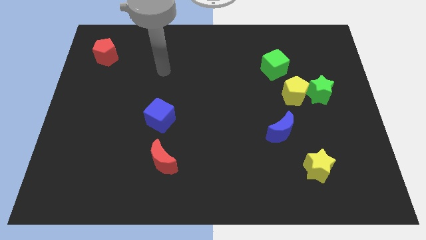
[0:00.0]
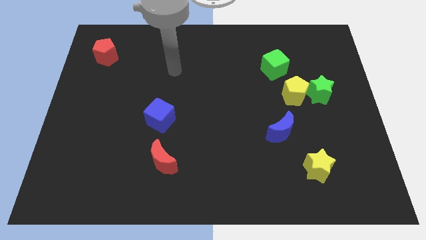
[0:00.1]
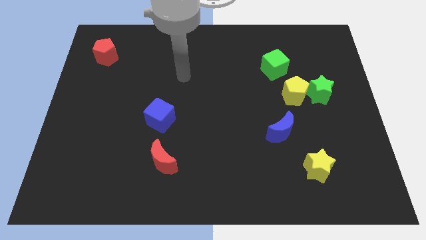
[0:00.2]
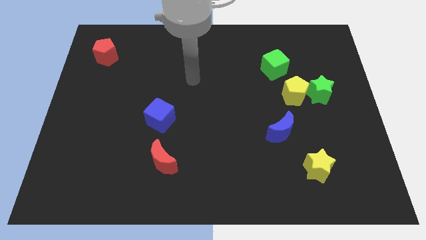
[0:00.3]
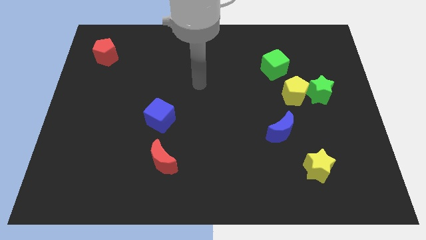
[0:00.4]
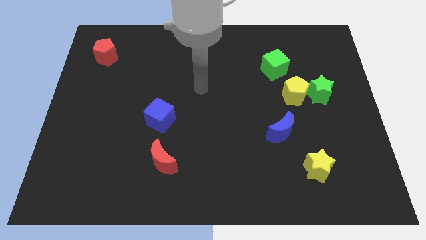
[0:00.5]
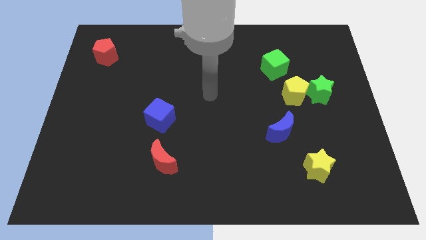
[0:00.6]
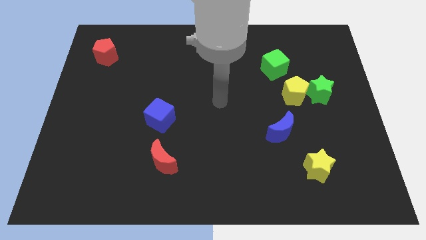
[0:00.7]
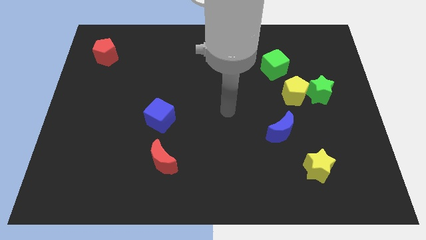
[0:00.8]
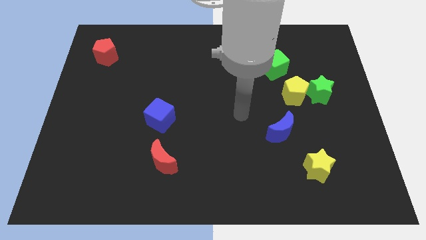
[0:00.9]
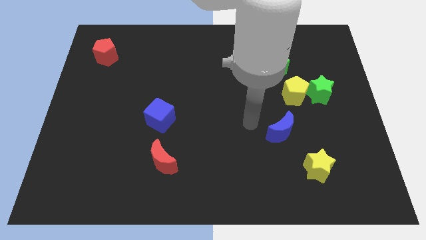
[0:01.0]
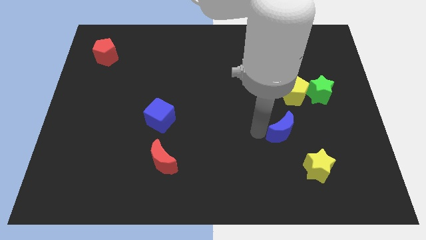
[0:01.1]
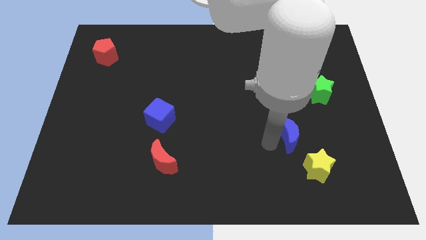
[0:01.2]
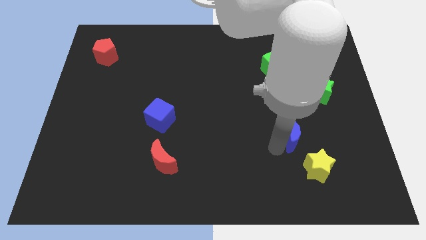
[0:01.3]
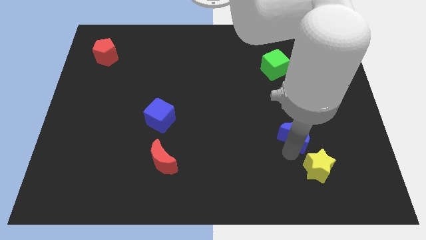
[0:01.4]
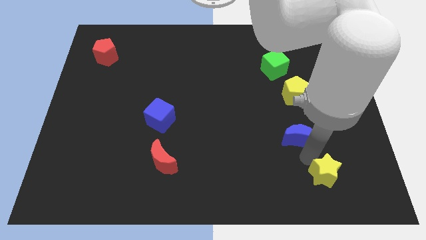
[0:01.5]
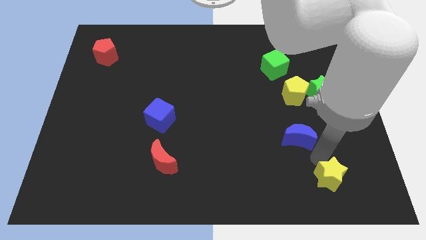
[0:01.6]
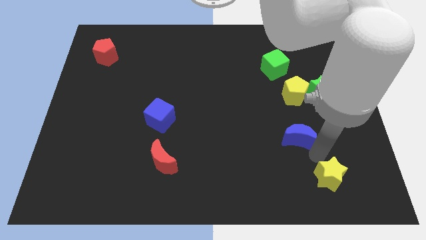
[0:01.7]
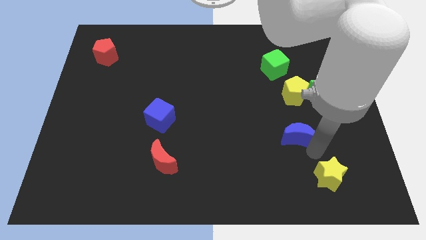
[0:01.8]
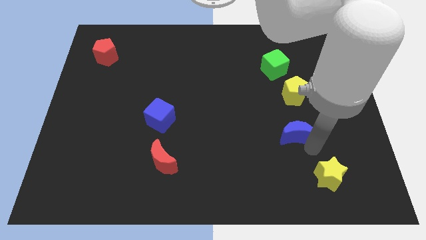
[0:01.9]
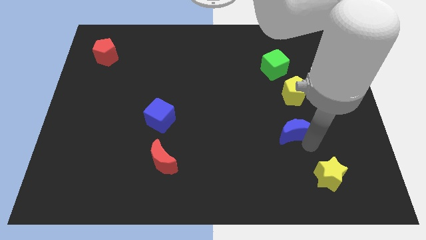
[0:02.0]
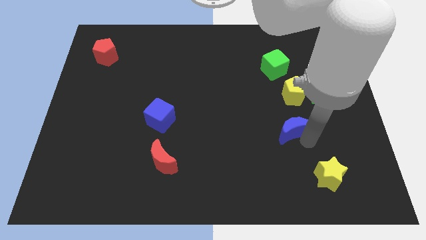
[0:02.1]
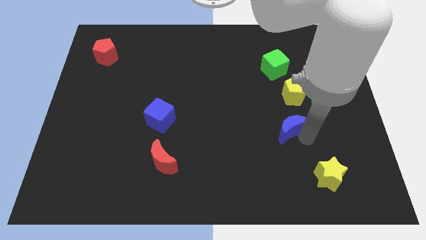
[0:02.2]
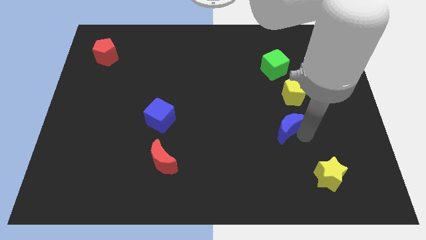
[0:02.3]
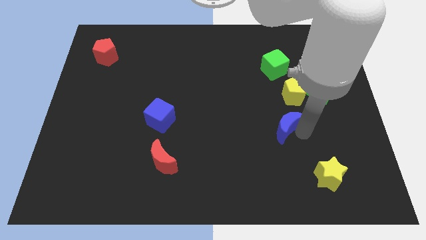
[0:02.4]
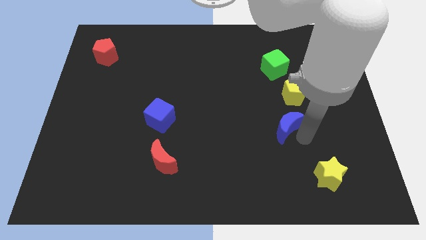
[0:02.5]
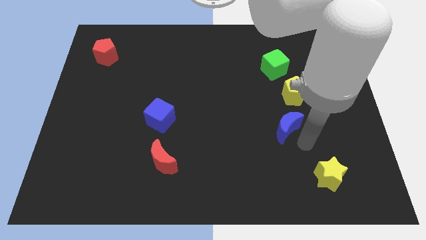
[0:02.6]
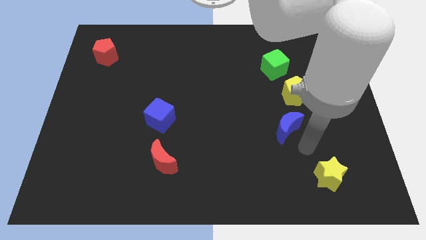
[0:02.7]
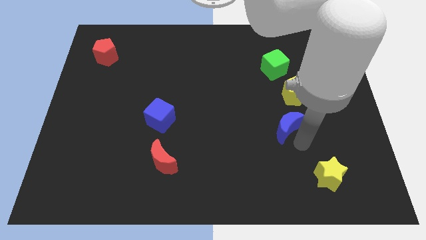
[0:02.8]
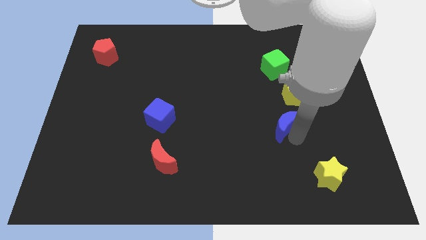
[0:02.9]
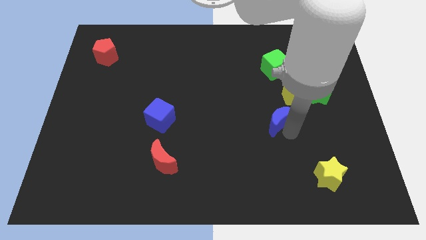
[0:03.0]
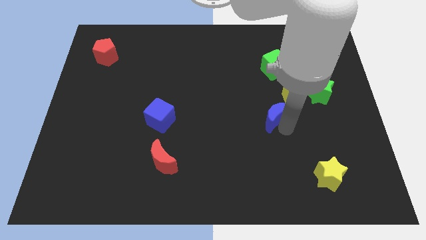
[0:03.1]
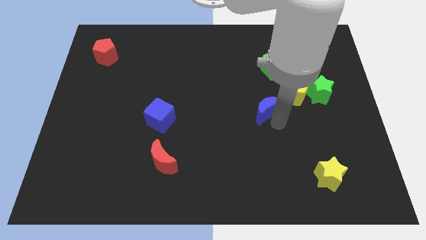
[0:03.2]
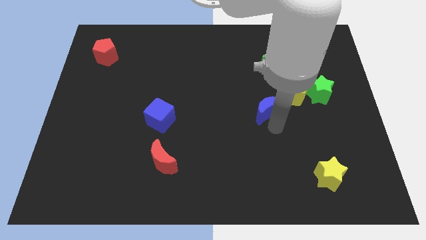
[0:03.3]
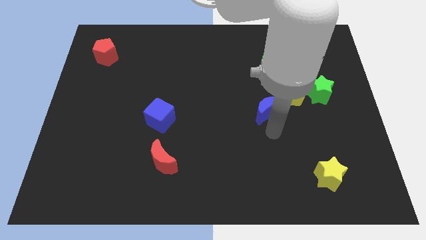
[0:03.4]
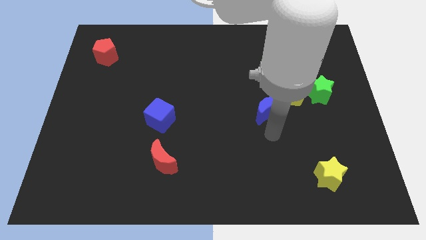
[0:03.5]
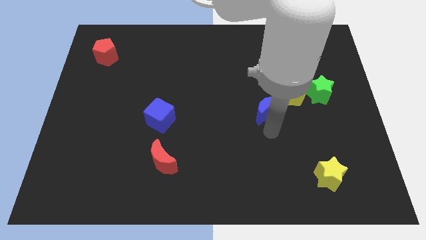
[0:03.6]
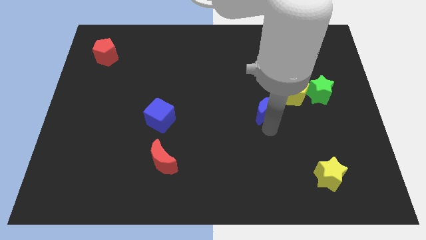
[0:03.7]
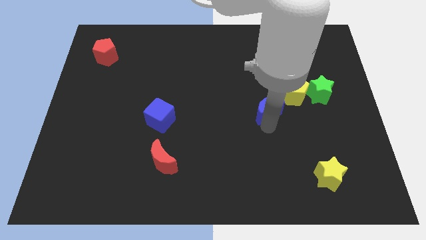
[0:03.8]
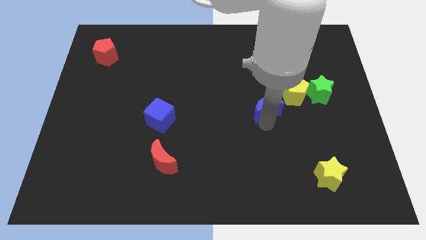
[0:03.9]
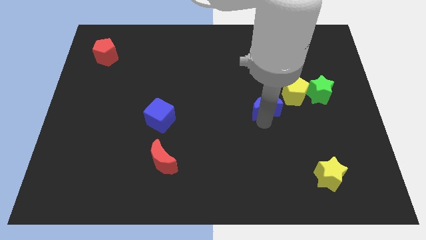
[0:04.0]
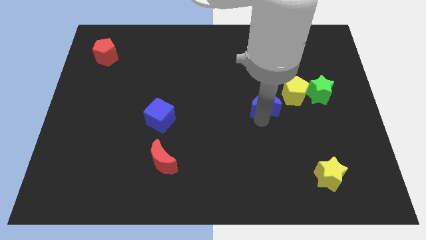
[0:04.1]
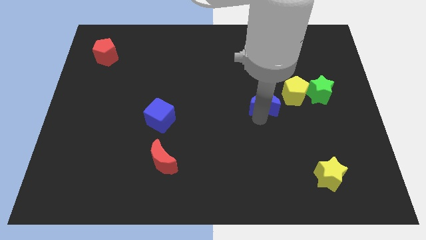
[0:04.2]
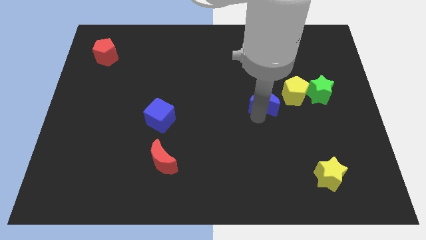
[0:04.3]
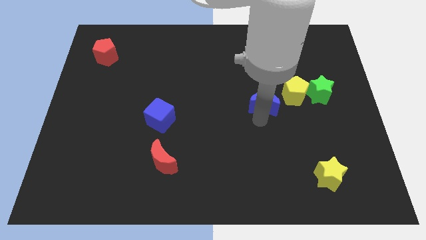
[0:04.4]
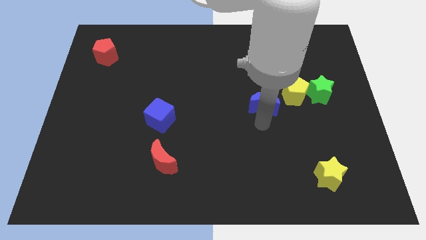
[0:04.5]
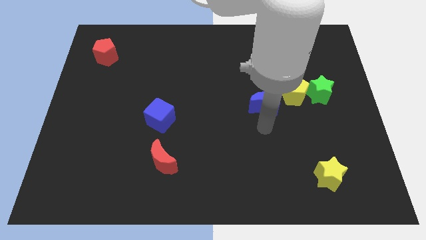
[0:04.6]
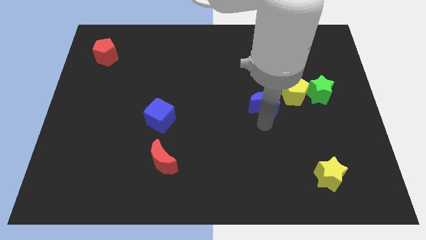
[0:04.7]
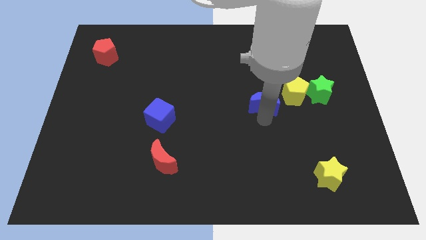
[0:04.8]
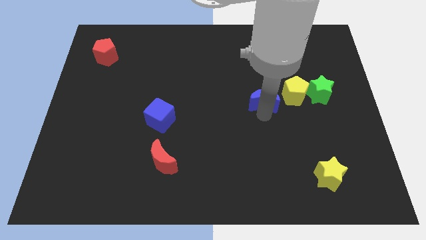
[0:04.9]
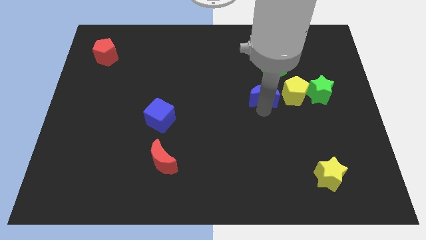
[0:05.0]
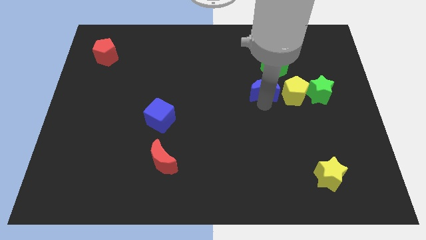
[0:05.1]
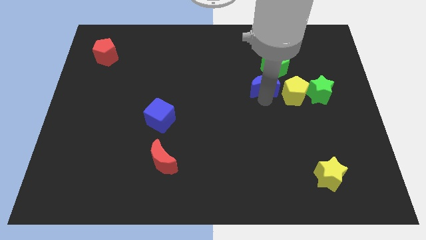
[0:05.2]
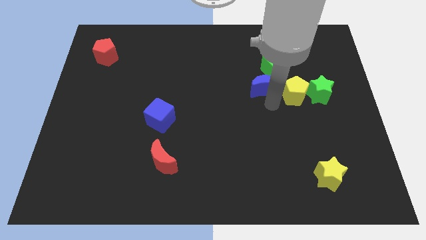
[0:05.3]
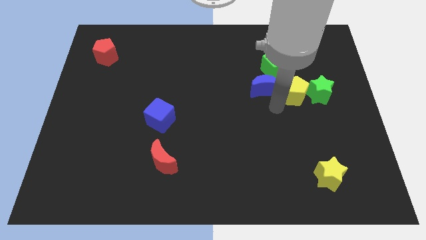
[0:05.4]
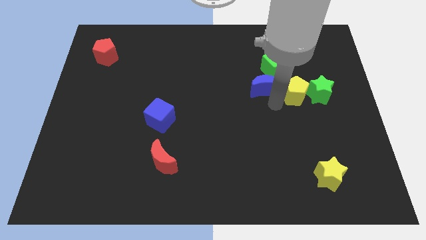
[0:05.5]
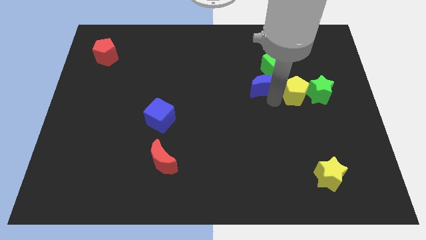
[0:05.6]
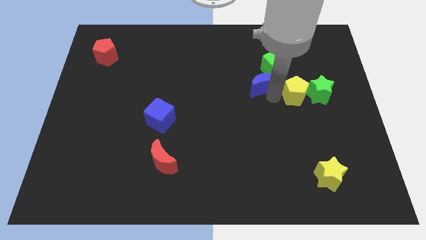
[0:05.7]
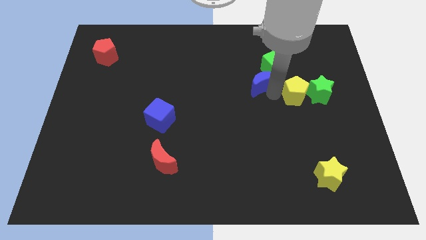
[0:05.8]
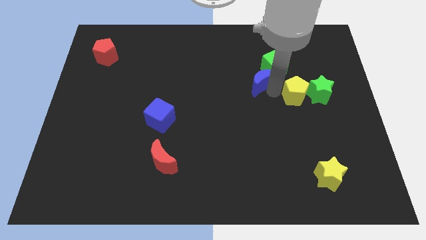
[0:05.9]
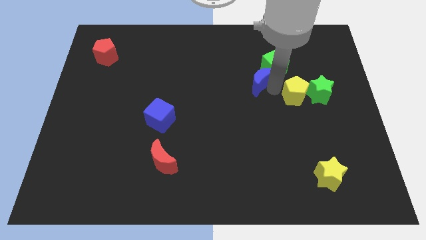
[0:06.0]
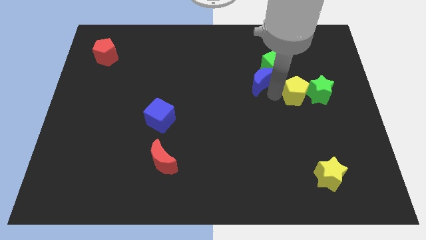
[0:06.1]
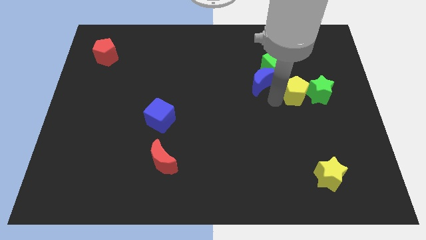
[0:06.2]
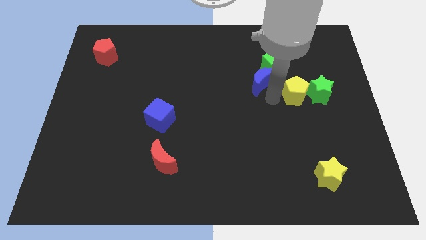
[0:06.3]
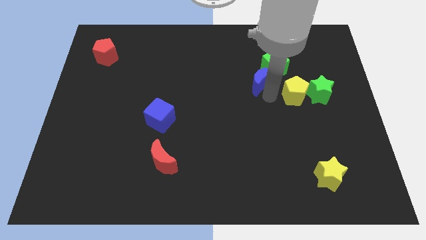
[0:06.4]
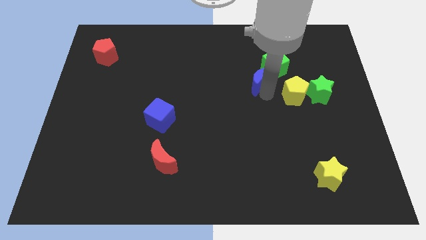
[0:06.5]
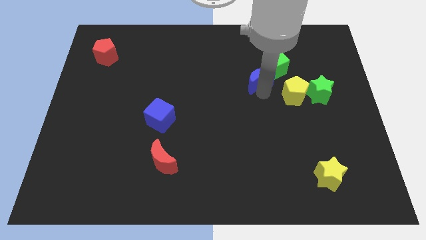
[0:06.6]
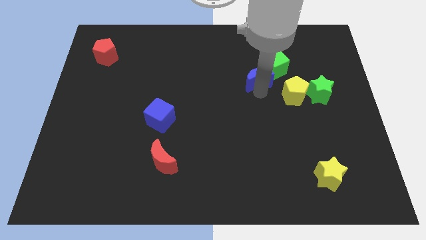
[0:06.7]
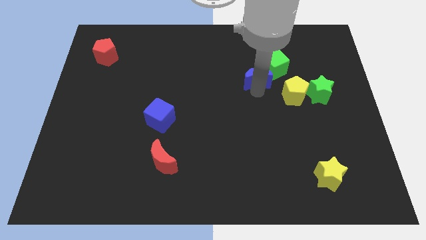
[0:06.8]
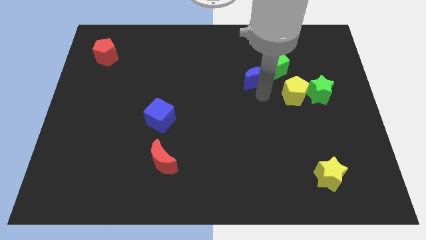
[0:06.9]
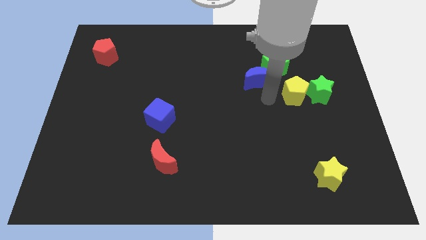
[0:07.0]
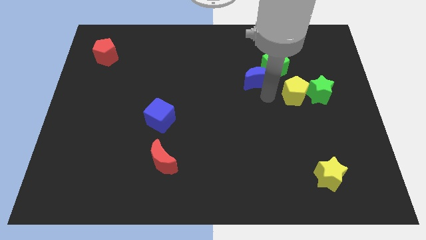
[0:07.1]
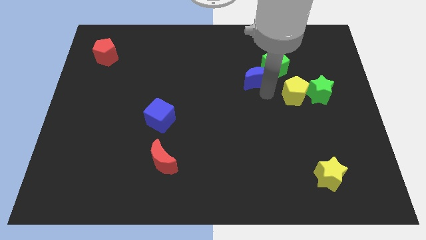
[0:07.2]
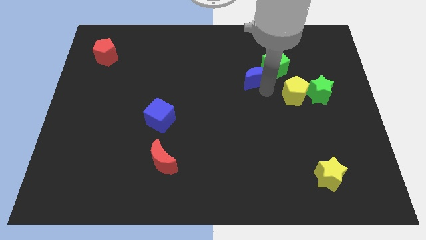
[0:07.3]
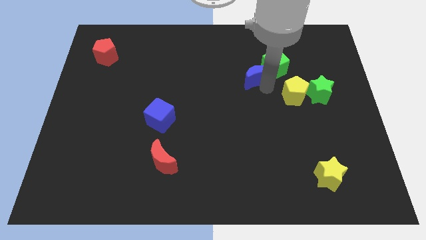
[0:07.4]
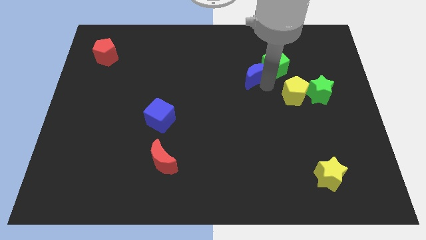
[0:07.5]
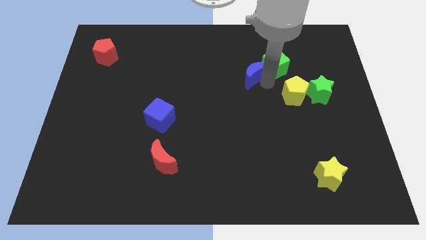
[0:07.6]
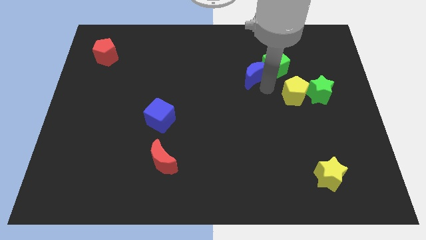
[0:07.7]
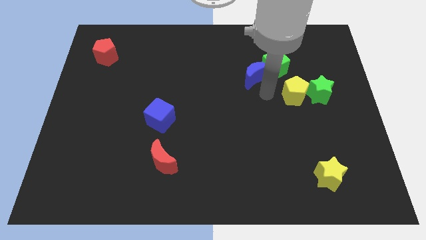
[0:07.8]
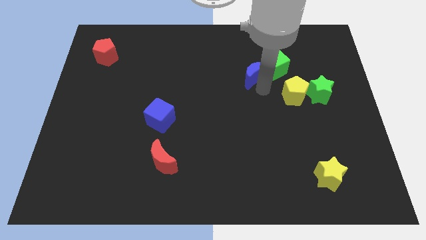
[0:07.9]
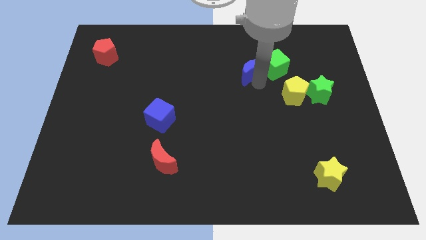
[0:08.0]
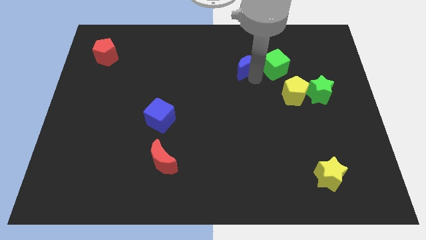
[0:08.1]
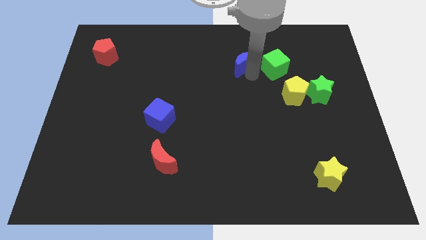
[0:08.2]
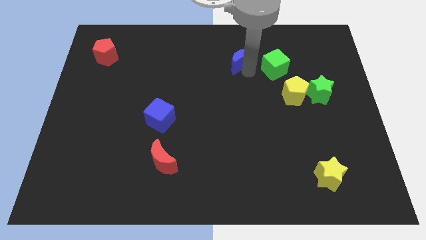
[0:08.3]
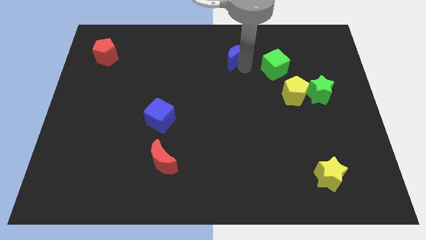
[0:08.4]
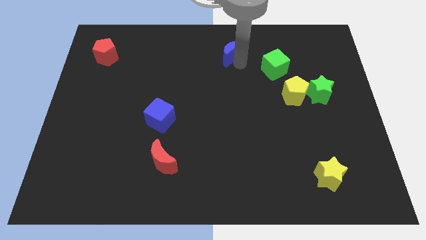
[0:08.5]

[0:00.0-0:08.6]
move the blue moon to the top side
